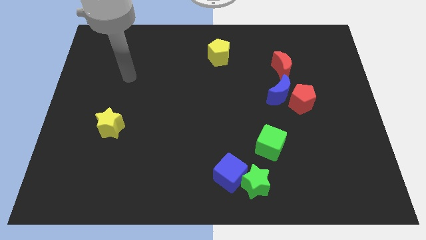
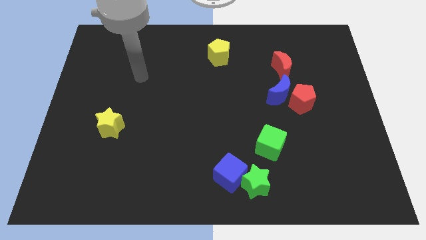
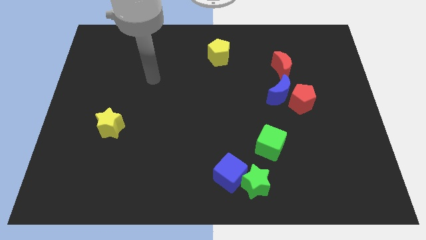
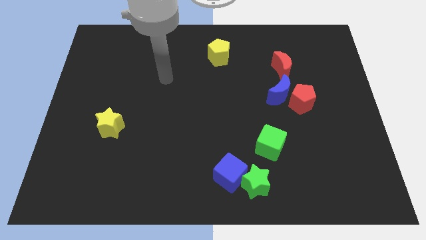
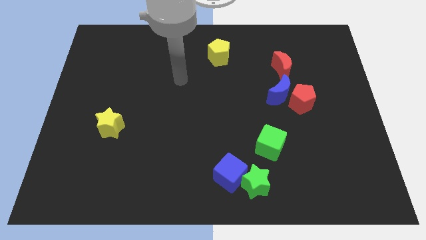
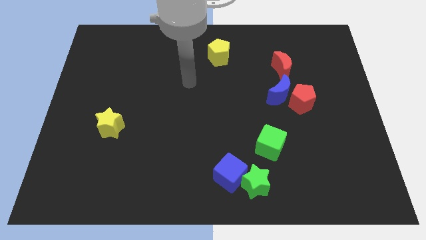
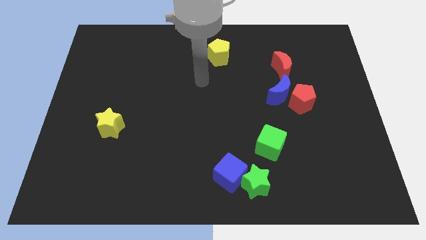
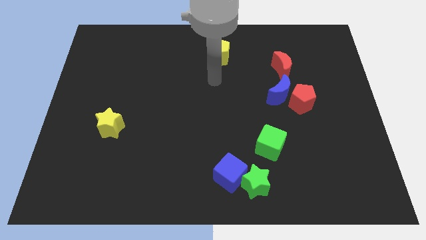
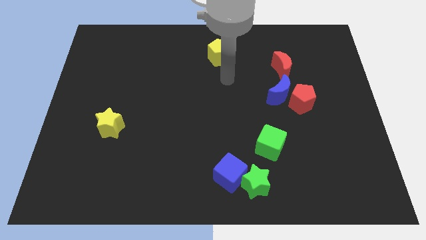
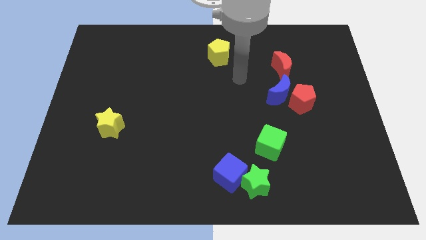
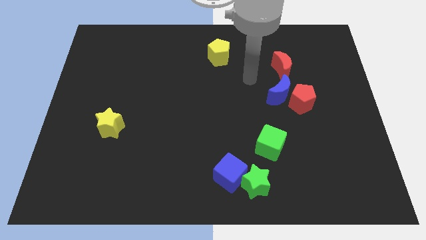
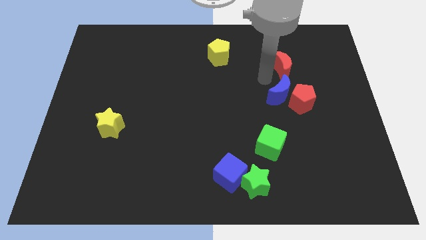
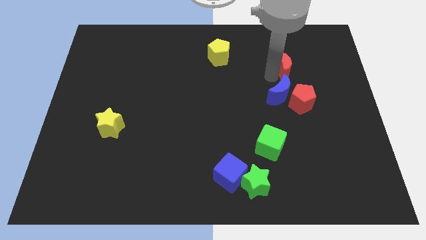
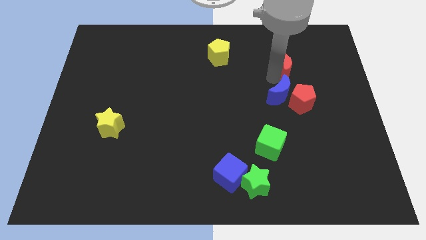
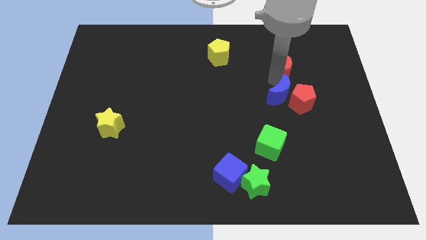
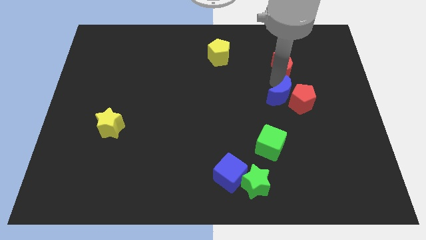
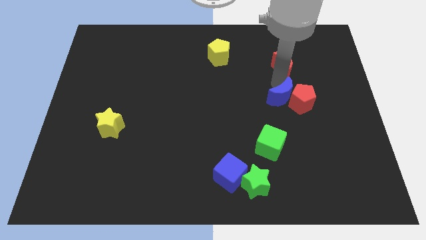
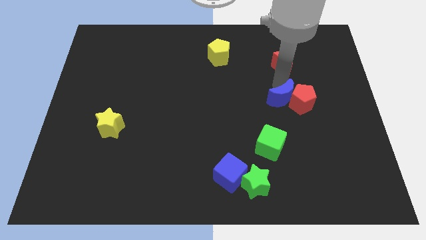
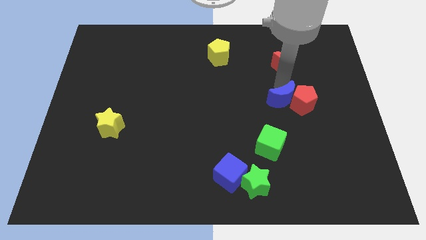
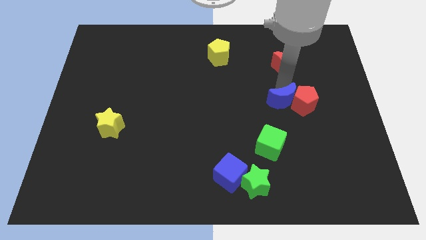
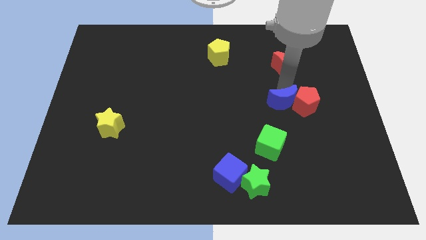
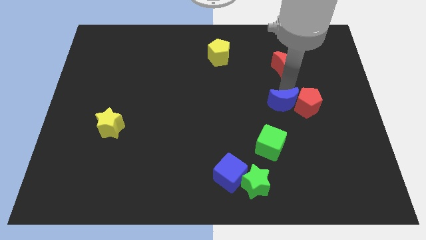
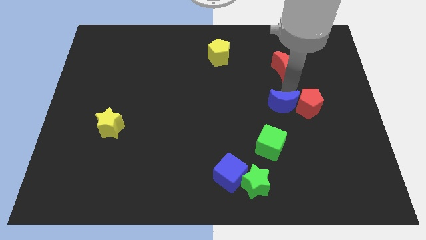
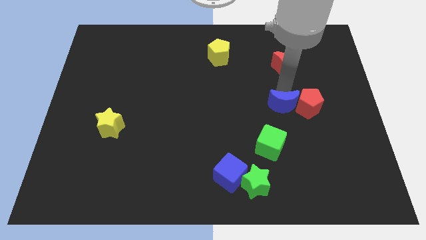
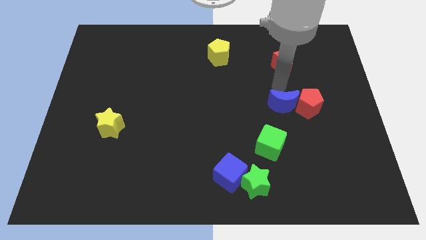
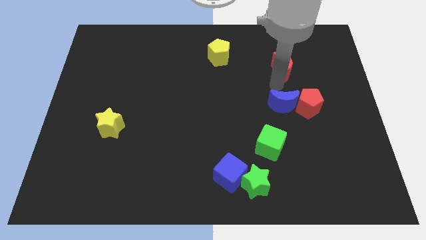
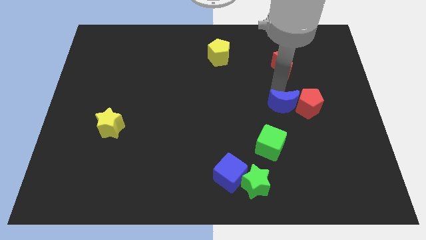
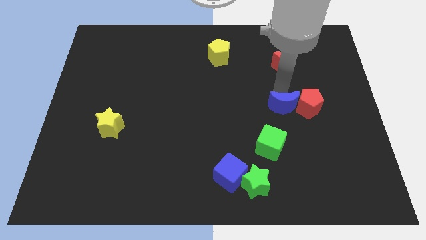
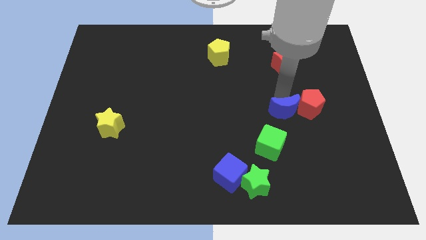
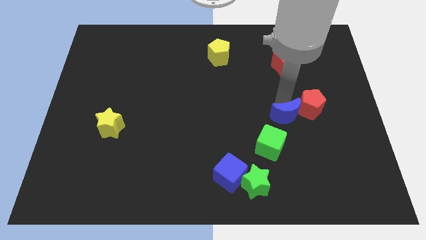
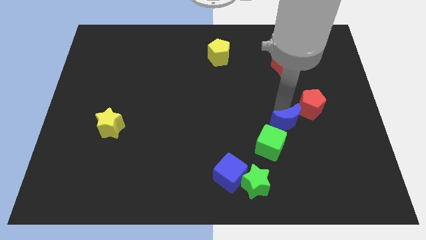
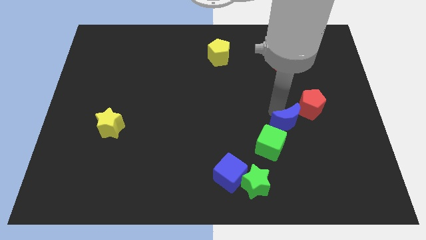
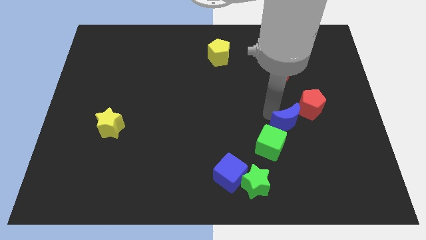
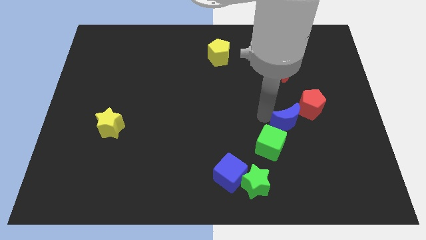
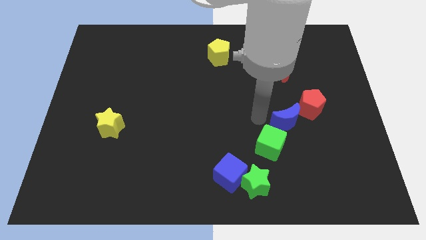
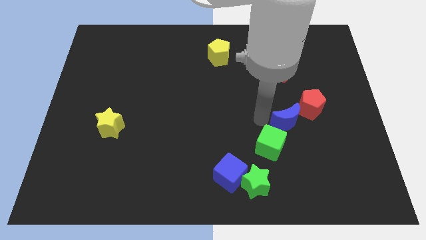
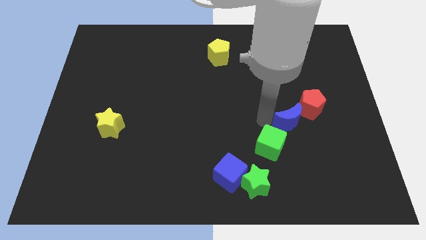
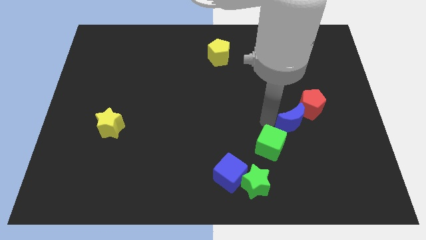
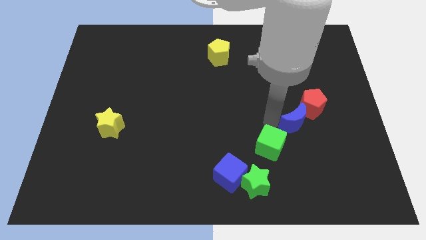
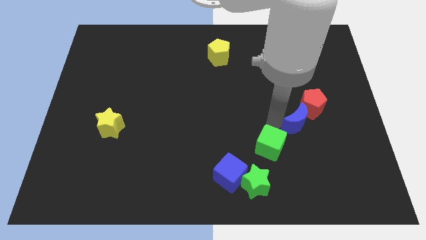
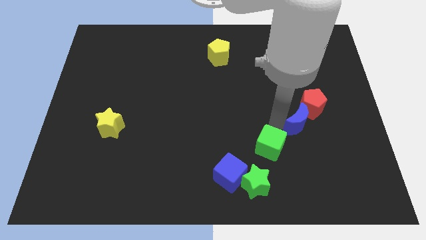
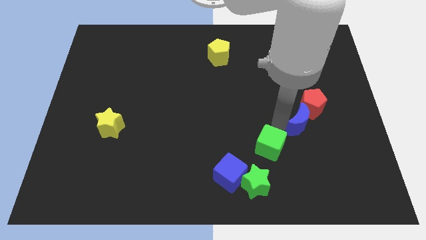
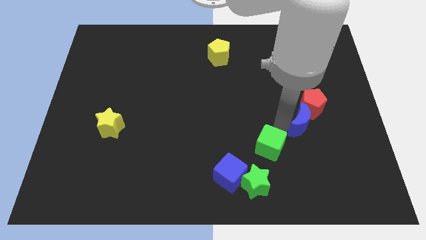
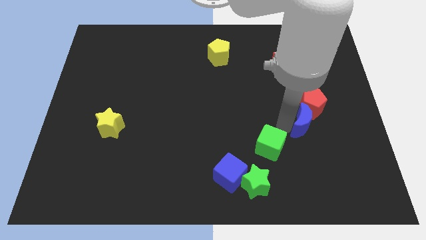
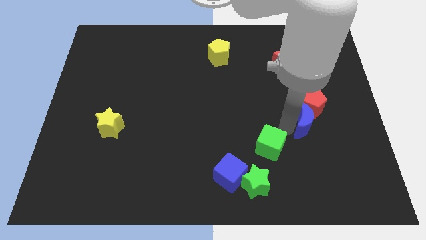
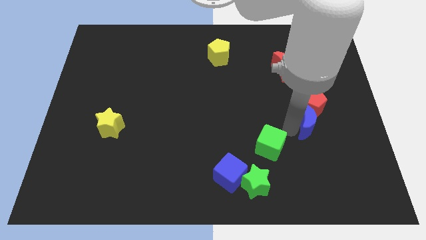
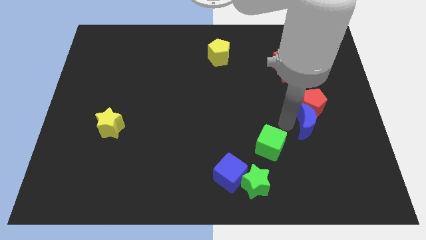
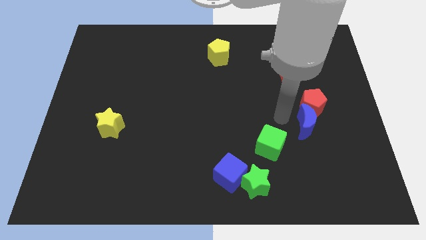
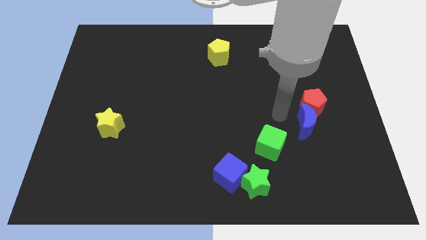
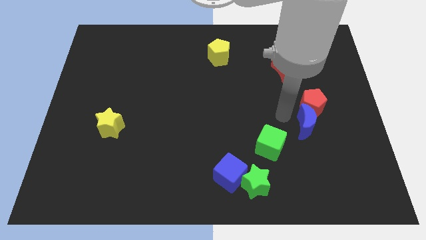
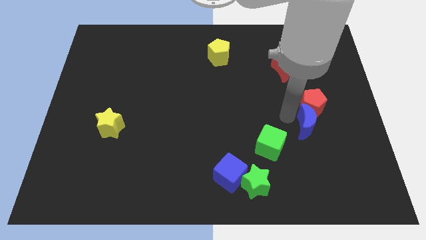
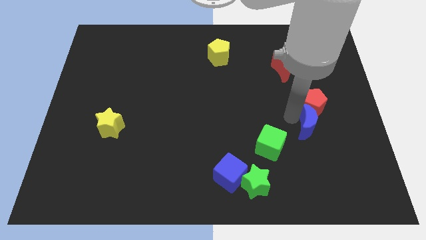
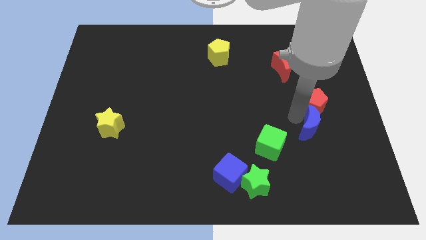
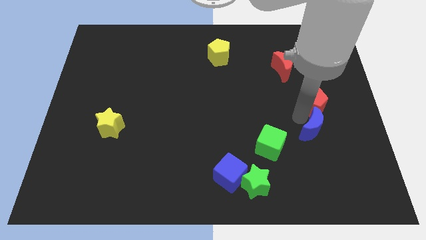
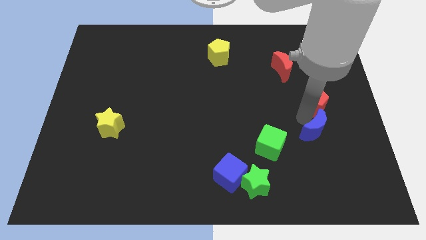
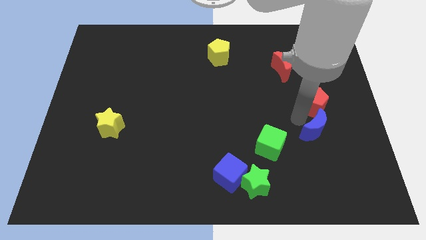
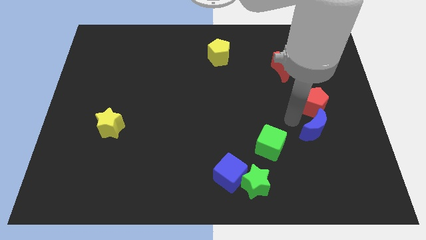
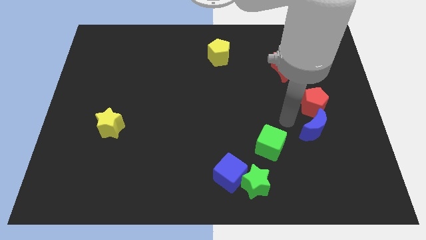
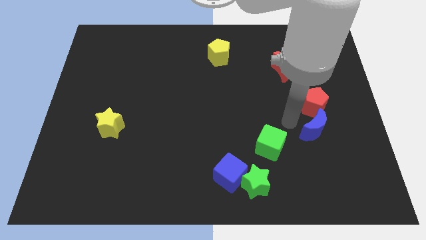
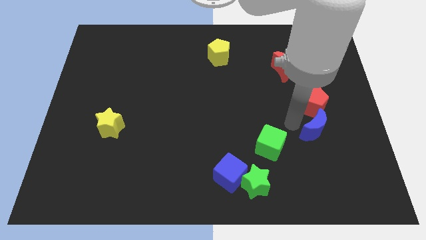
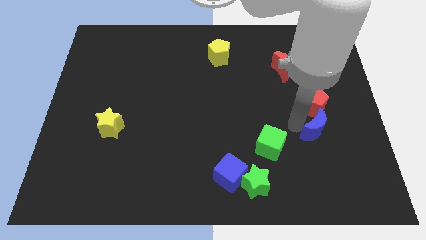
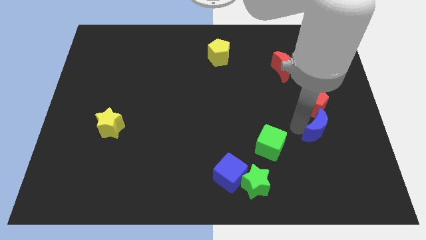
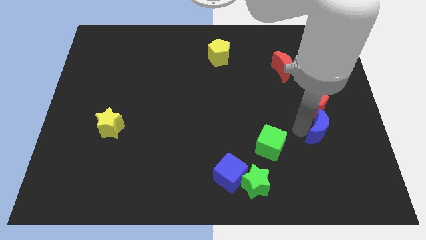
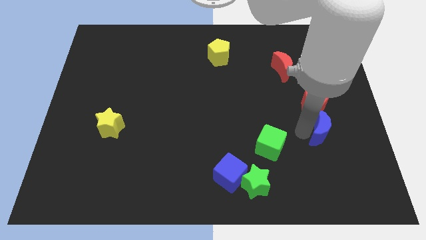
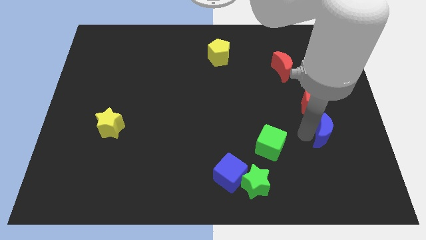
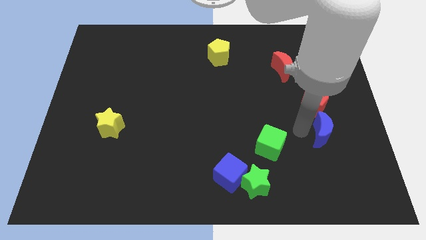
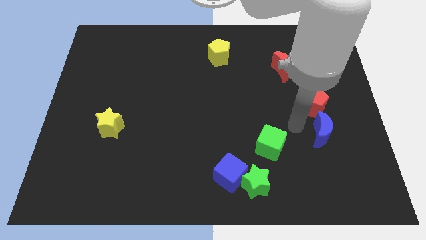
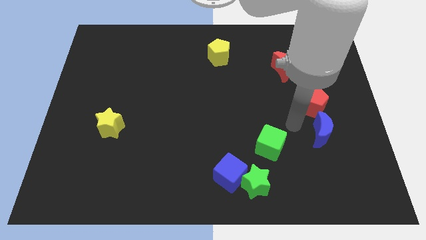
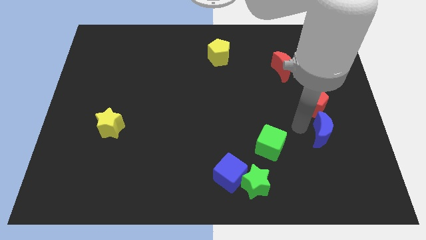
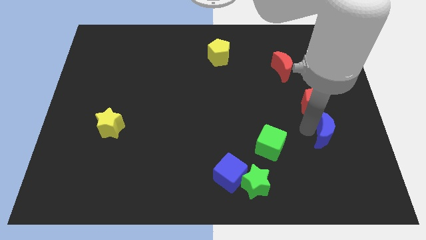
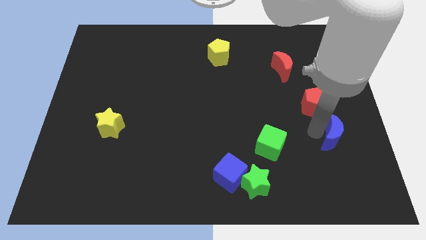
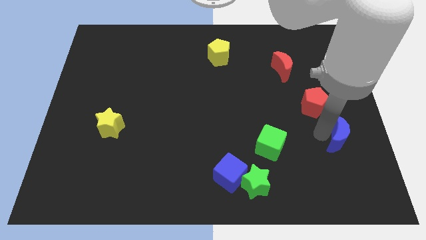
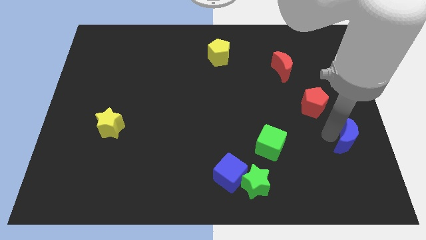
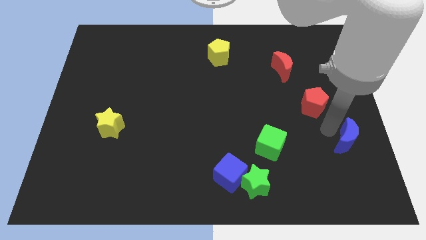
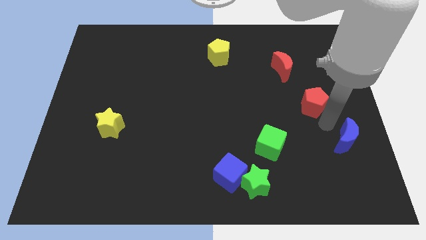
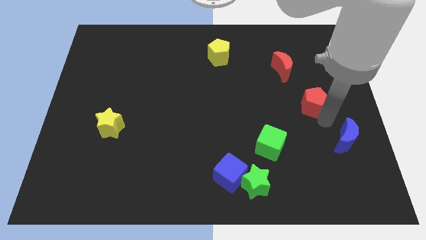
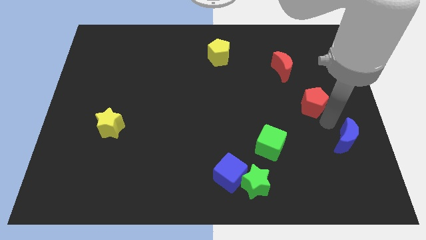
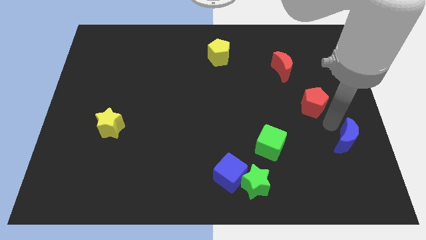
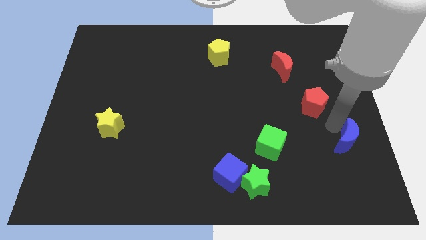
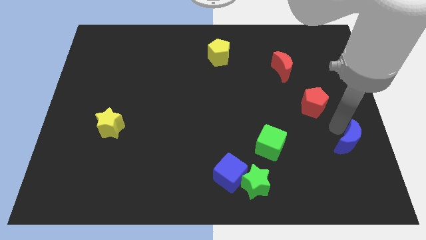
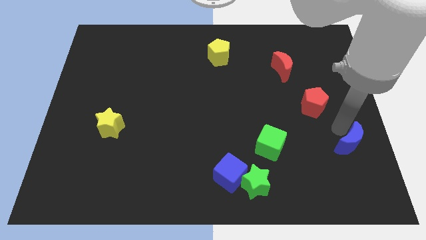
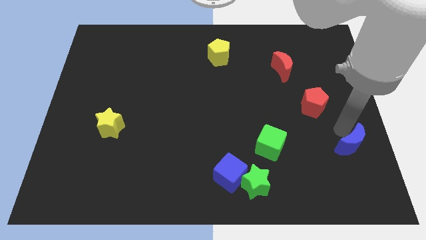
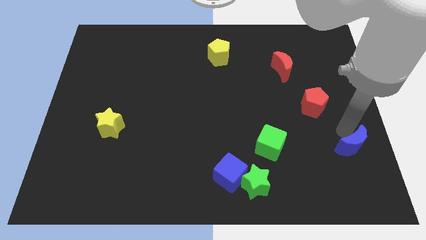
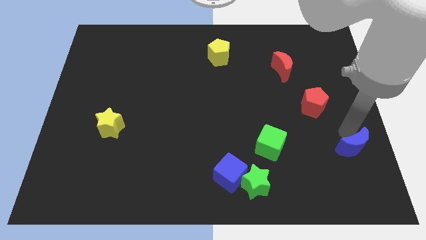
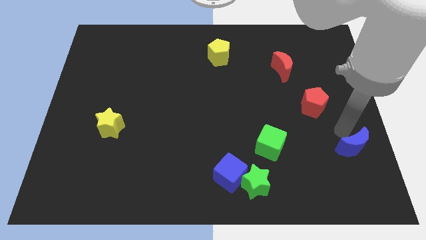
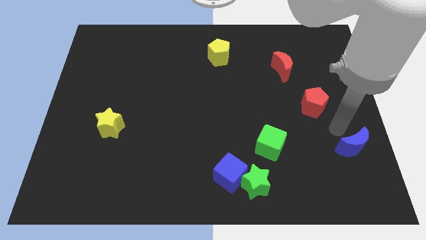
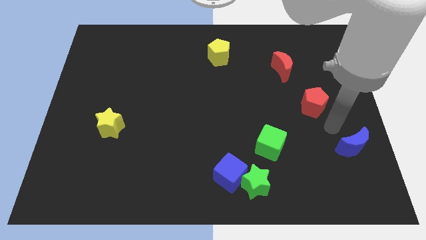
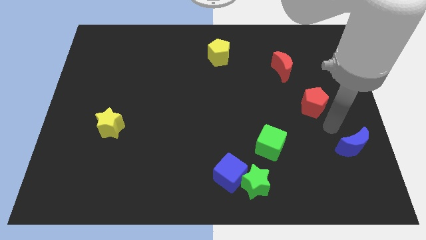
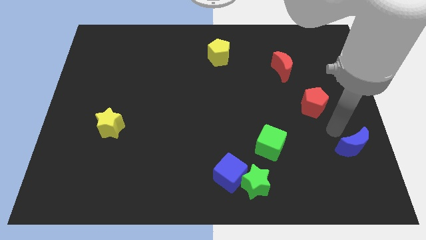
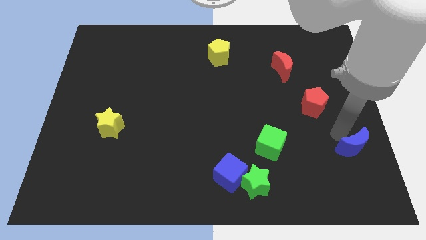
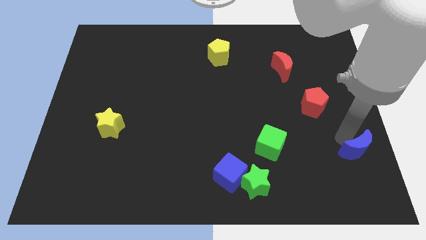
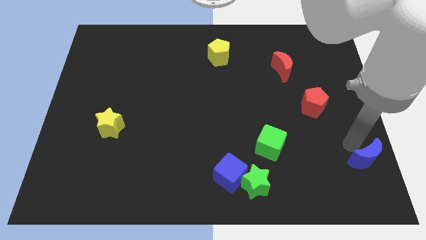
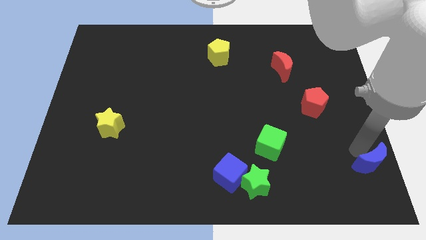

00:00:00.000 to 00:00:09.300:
move the blue moon to the bottom right
